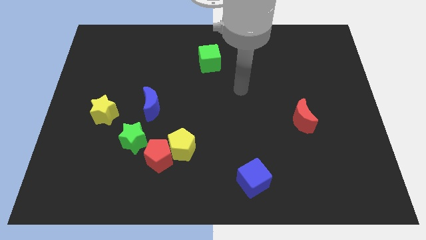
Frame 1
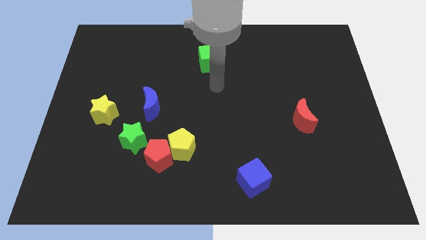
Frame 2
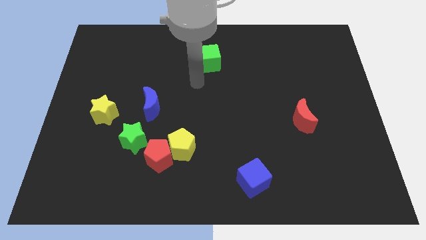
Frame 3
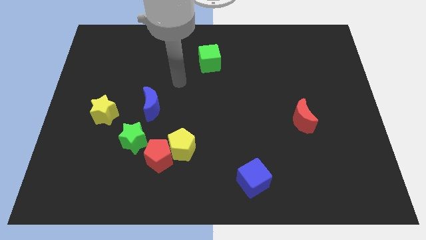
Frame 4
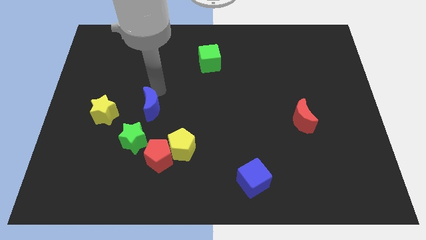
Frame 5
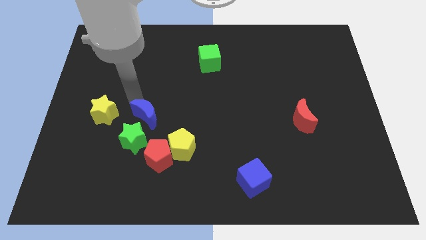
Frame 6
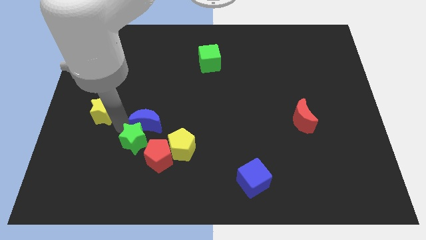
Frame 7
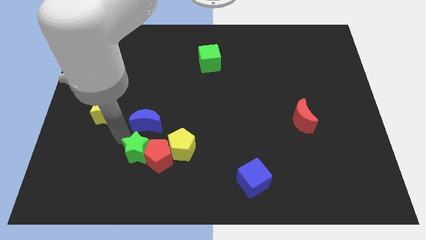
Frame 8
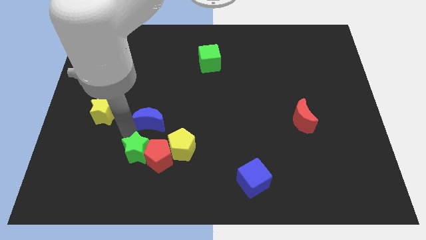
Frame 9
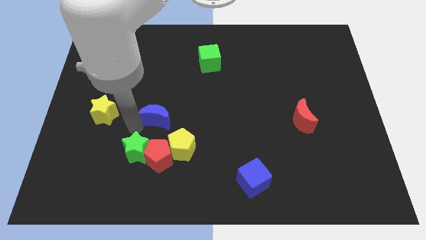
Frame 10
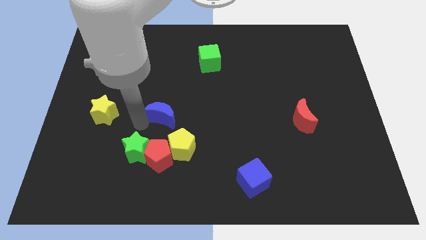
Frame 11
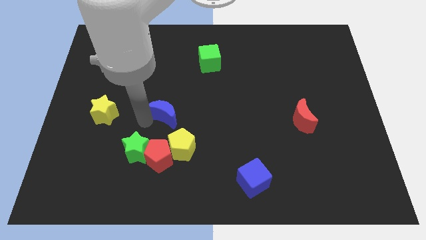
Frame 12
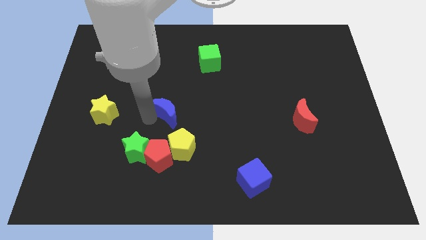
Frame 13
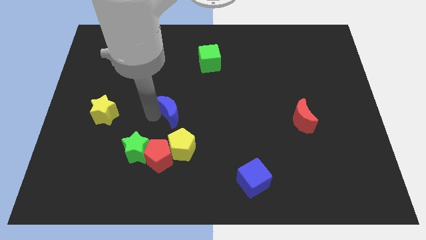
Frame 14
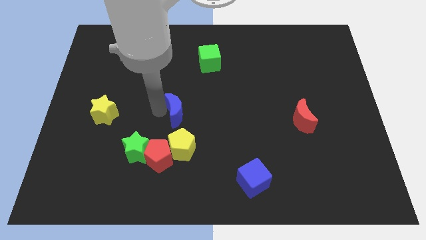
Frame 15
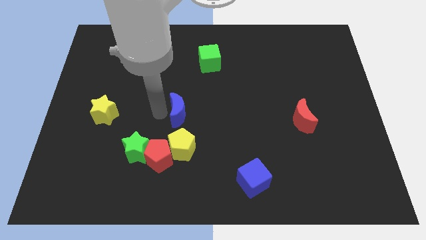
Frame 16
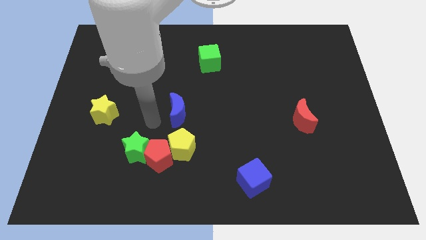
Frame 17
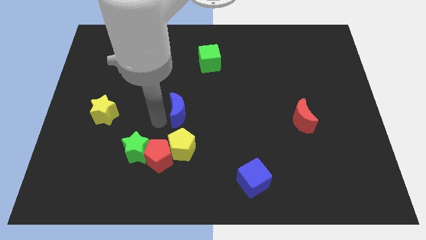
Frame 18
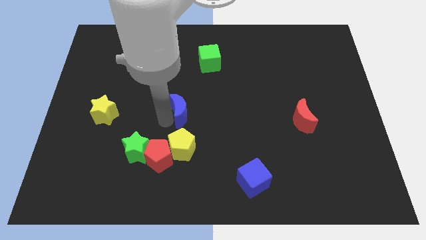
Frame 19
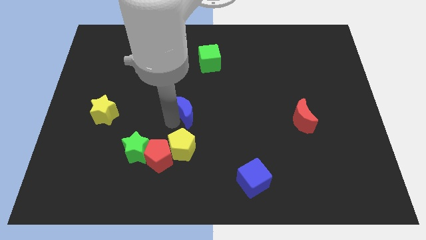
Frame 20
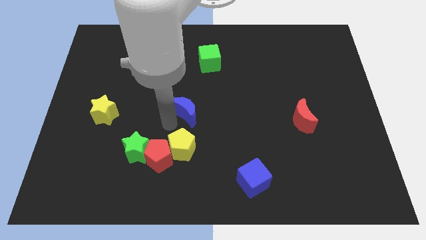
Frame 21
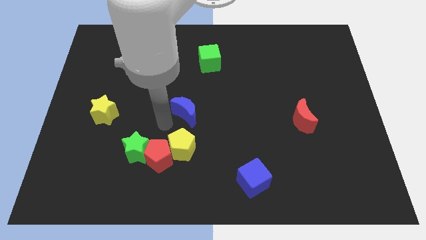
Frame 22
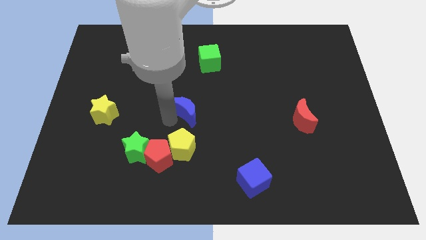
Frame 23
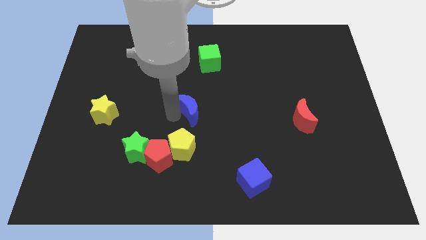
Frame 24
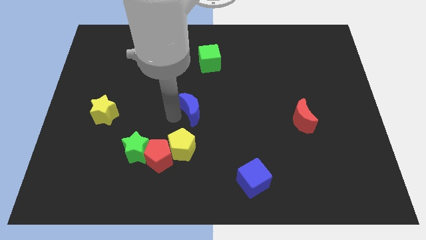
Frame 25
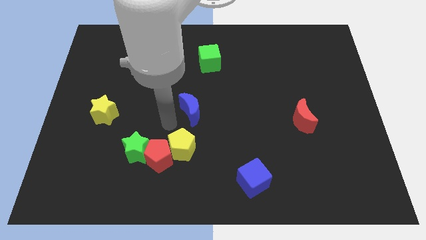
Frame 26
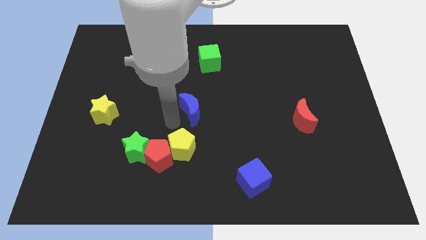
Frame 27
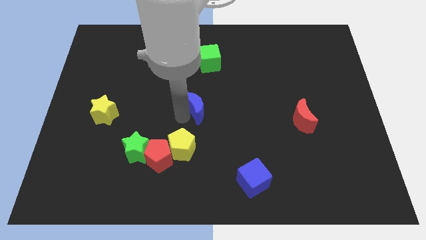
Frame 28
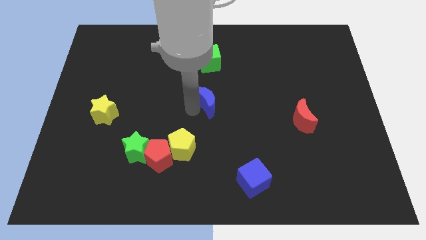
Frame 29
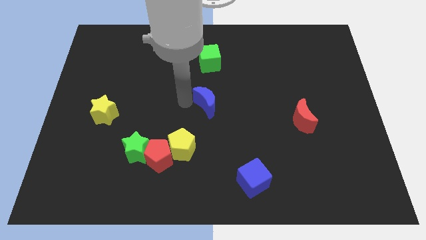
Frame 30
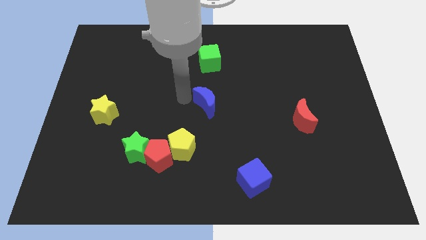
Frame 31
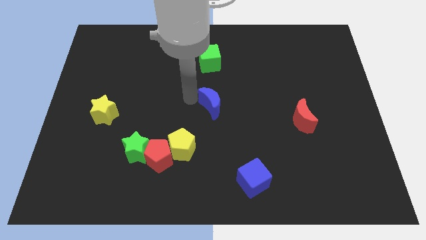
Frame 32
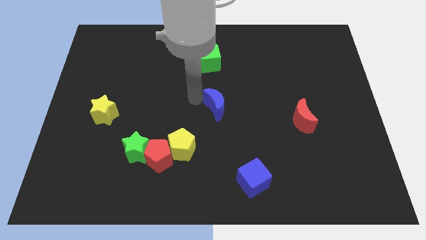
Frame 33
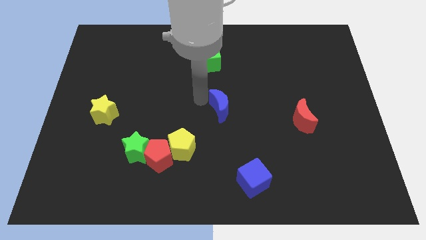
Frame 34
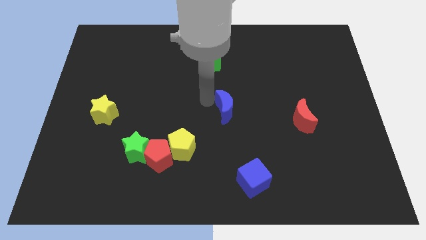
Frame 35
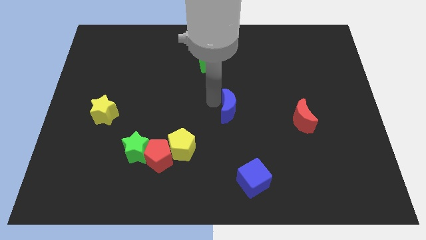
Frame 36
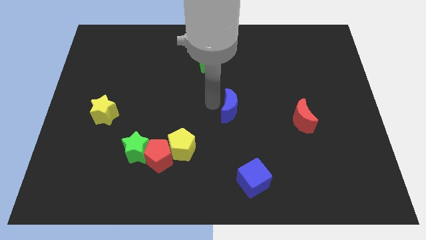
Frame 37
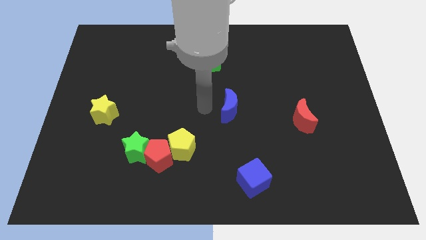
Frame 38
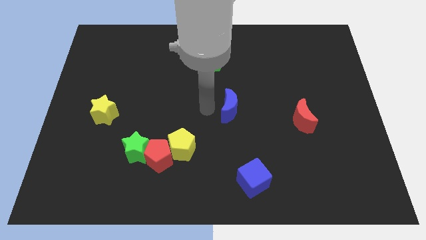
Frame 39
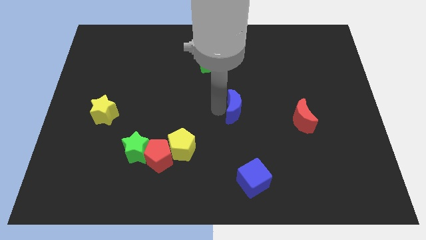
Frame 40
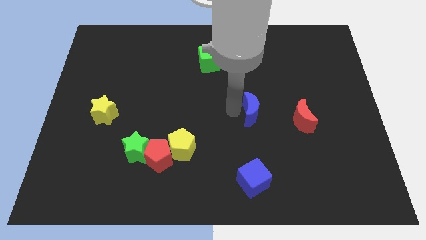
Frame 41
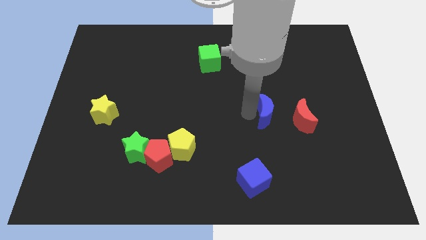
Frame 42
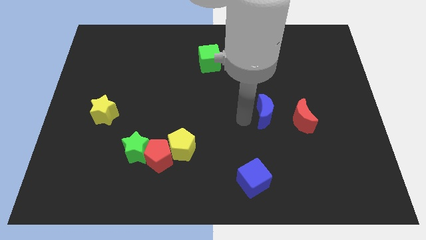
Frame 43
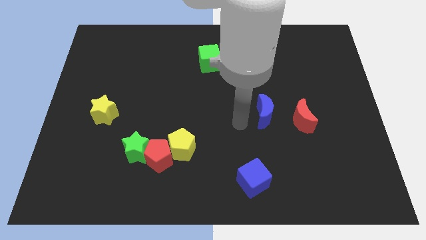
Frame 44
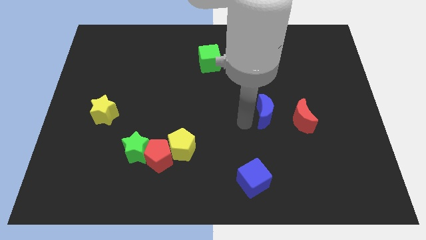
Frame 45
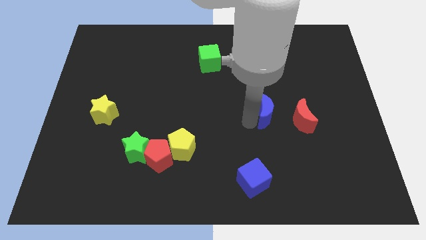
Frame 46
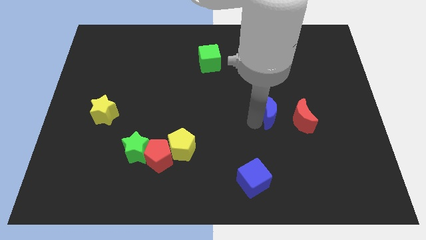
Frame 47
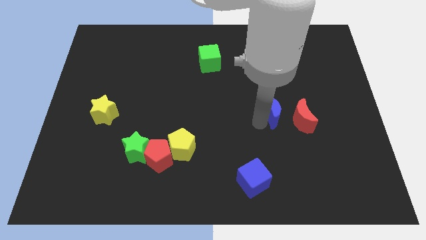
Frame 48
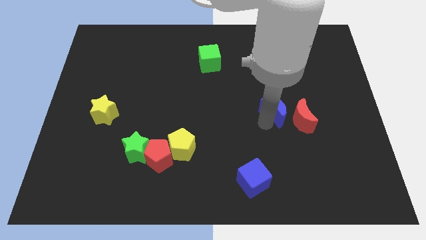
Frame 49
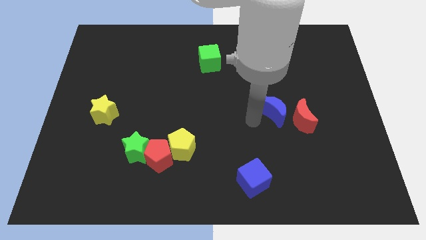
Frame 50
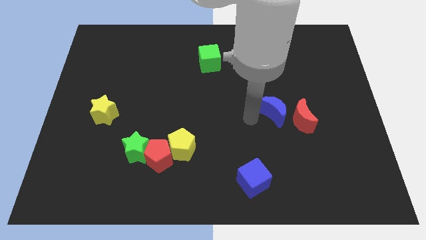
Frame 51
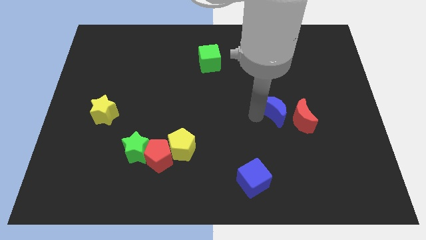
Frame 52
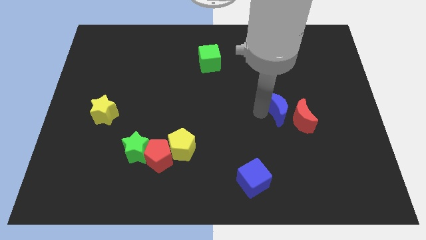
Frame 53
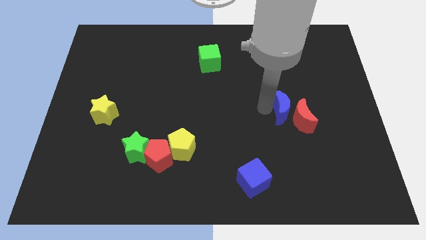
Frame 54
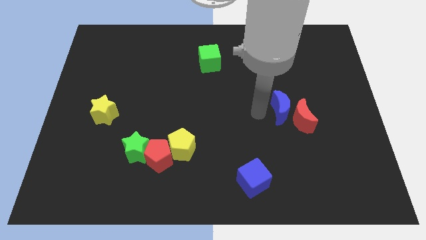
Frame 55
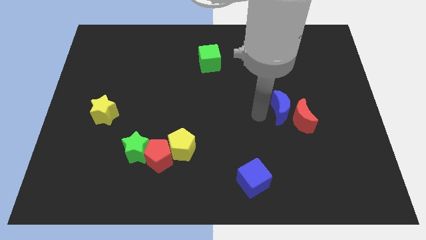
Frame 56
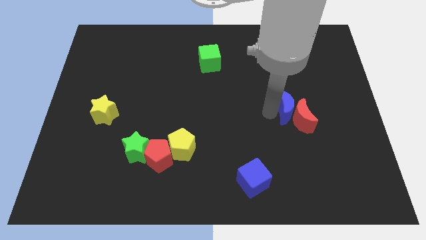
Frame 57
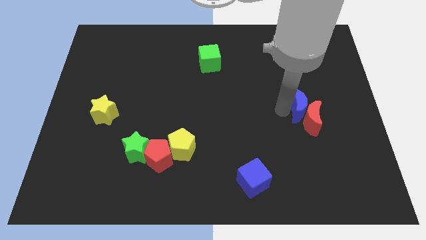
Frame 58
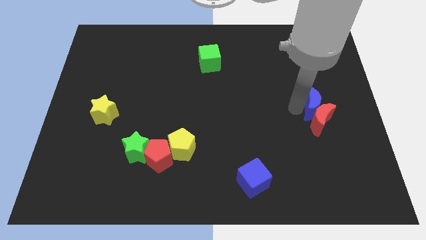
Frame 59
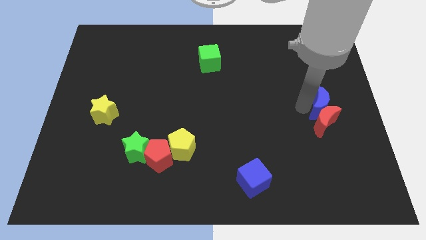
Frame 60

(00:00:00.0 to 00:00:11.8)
move the blue moon to the right side of the board
